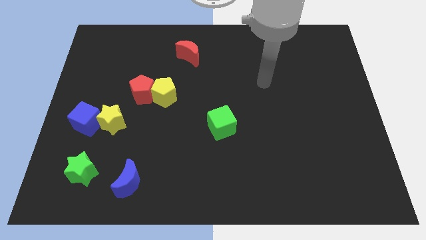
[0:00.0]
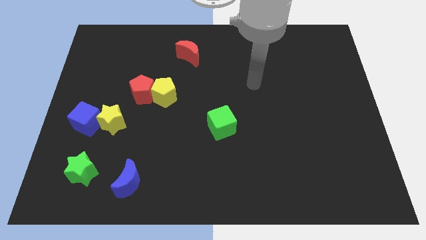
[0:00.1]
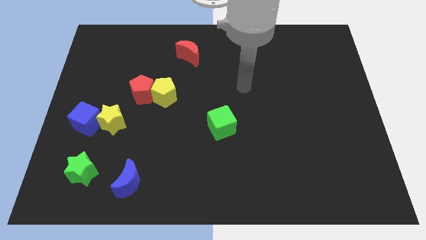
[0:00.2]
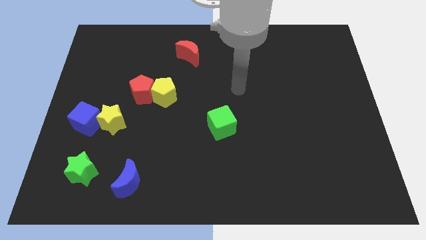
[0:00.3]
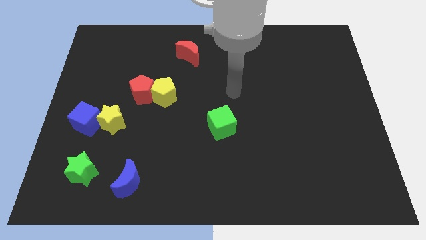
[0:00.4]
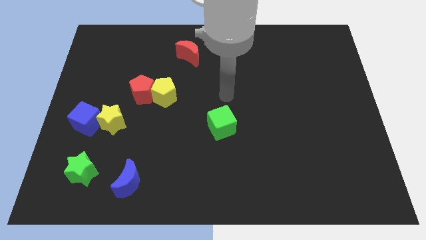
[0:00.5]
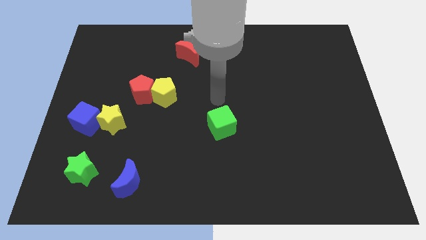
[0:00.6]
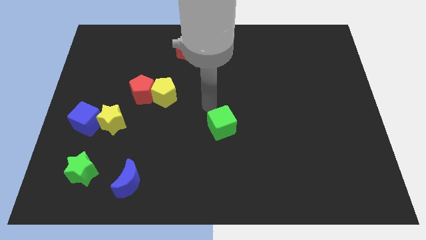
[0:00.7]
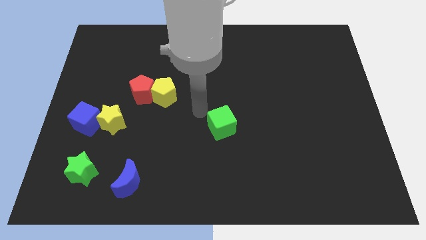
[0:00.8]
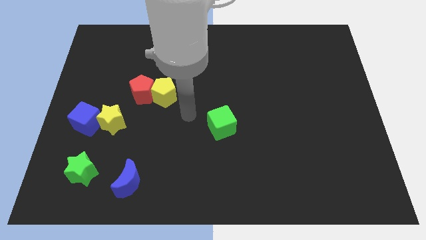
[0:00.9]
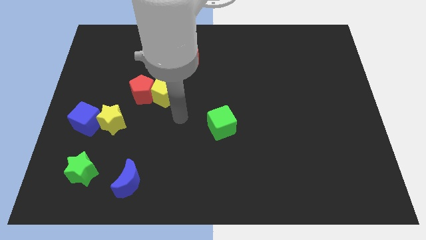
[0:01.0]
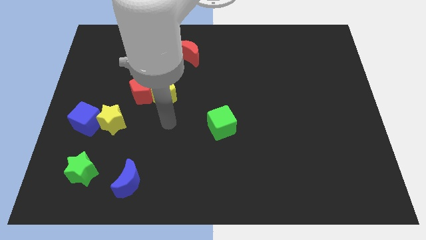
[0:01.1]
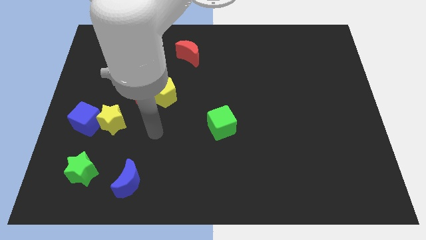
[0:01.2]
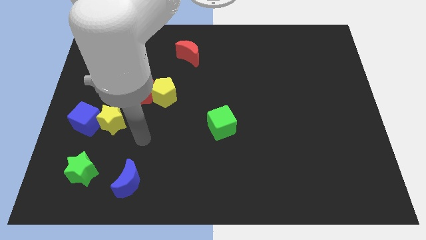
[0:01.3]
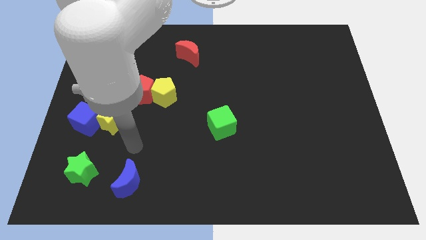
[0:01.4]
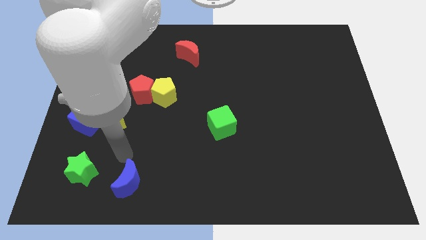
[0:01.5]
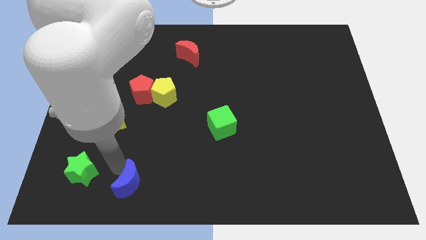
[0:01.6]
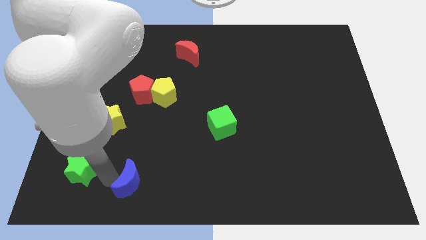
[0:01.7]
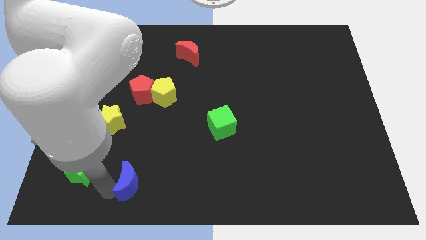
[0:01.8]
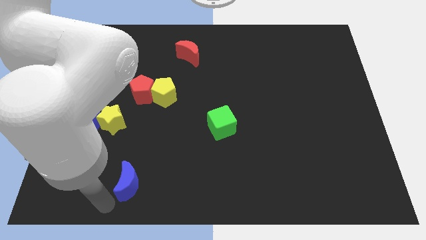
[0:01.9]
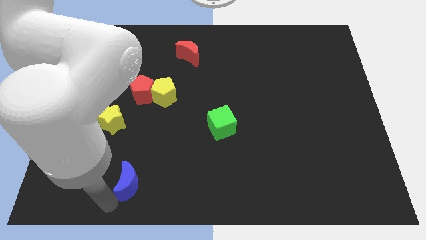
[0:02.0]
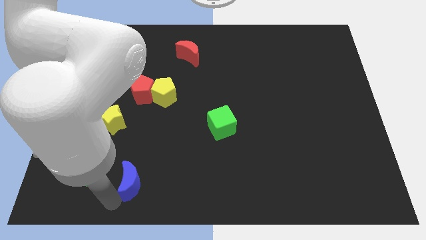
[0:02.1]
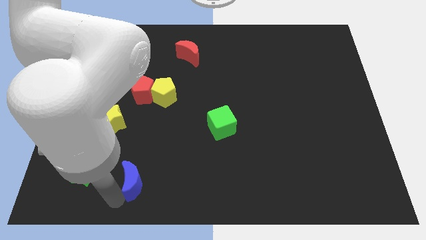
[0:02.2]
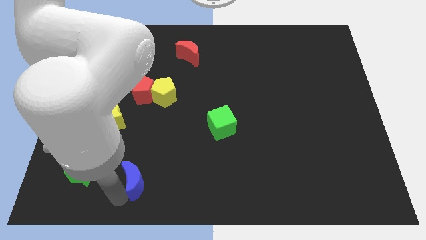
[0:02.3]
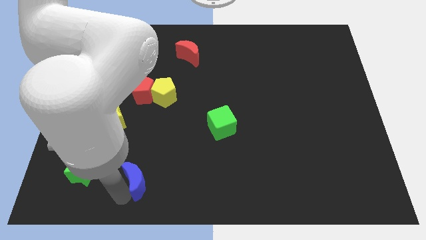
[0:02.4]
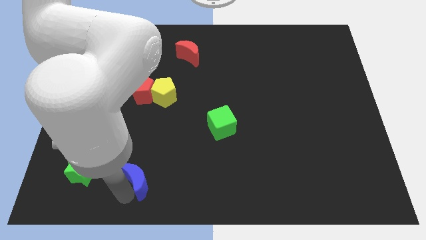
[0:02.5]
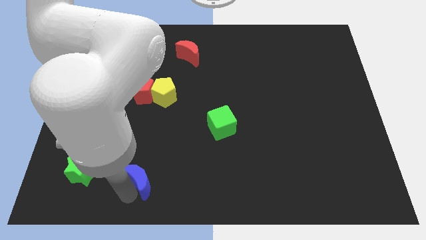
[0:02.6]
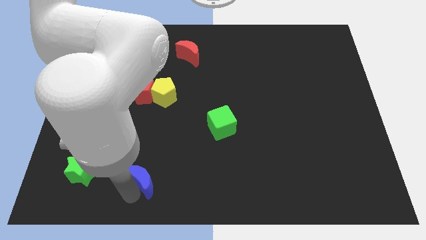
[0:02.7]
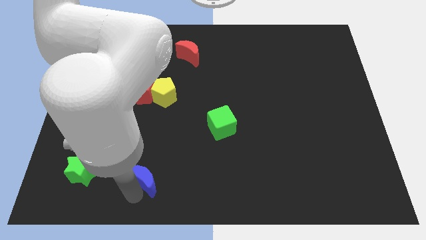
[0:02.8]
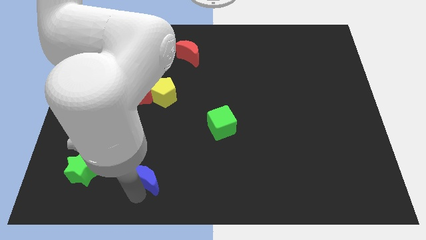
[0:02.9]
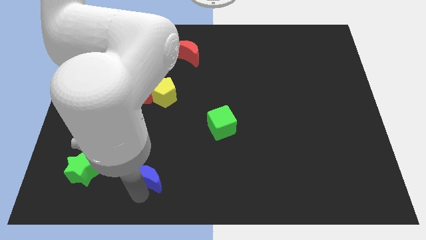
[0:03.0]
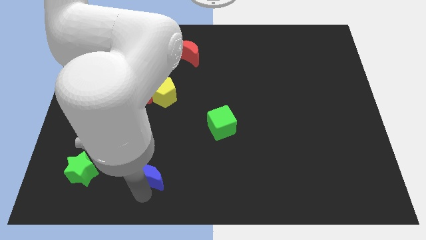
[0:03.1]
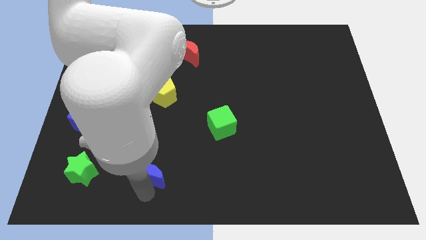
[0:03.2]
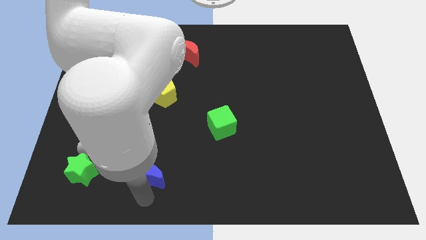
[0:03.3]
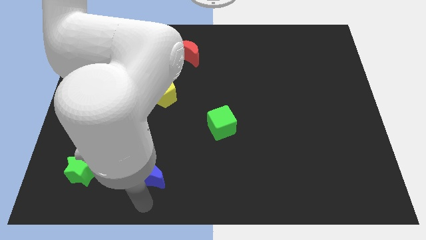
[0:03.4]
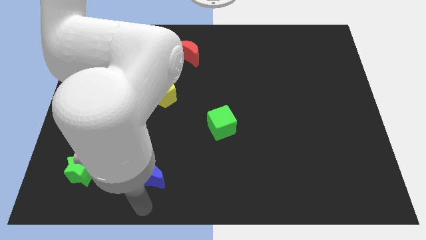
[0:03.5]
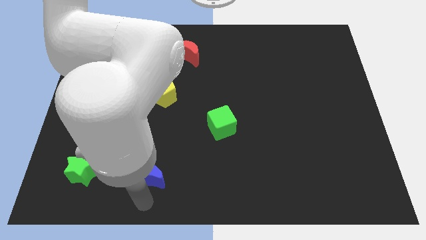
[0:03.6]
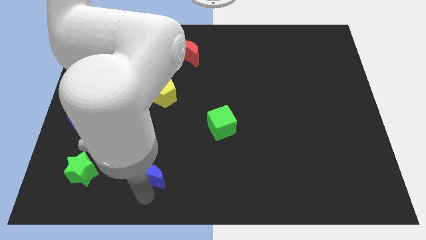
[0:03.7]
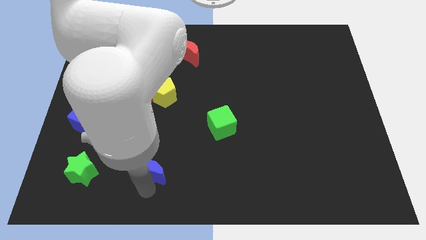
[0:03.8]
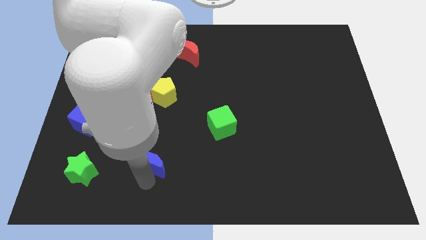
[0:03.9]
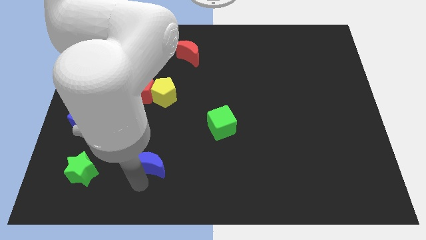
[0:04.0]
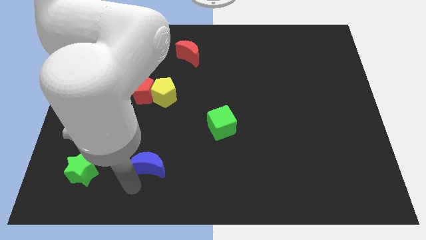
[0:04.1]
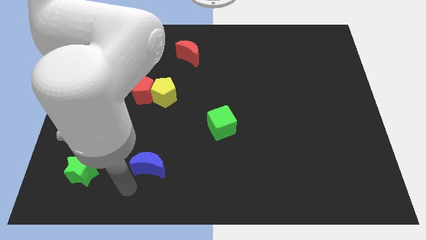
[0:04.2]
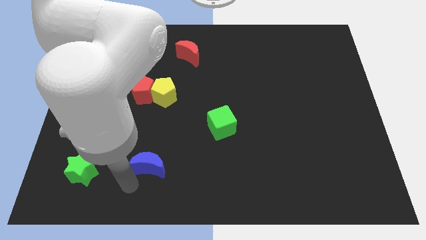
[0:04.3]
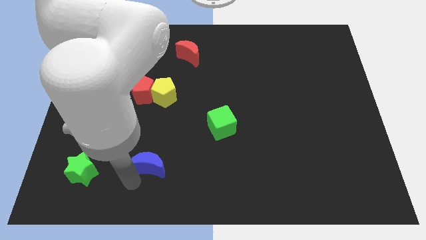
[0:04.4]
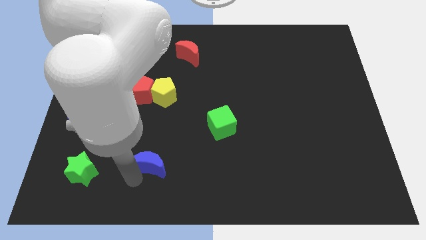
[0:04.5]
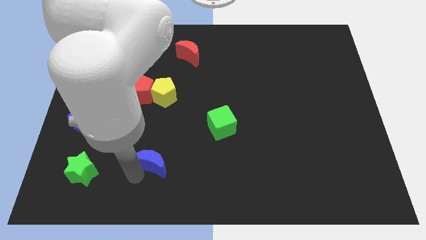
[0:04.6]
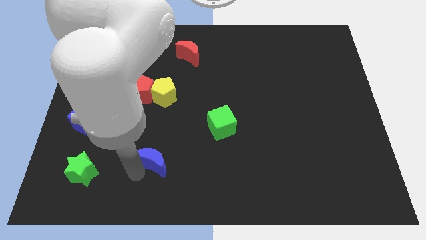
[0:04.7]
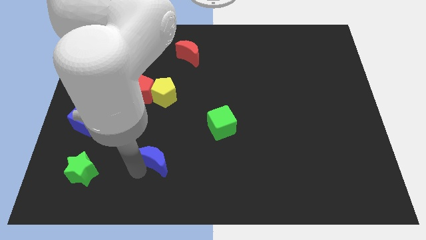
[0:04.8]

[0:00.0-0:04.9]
move the blue moon up and then right a little

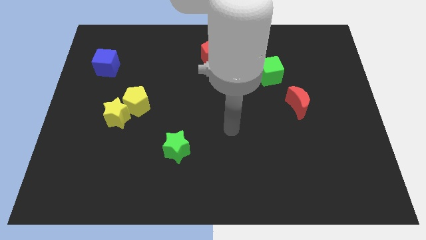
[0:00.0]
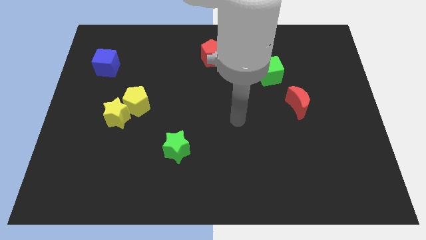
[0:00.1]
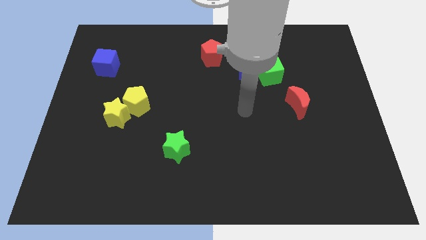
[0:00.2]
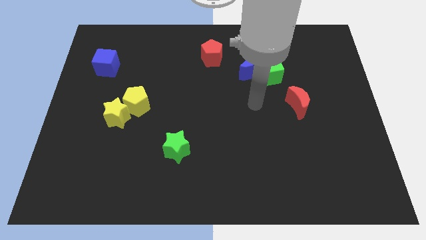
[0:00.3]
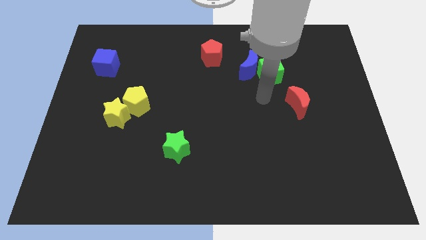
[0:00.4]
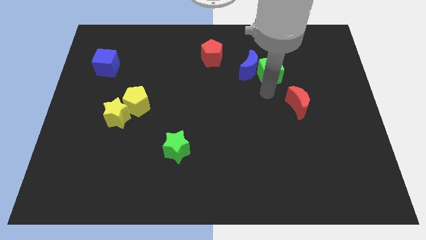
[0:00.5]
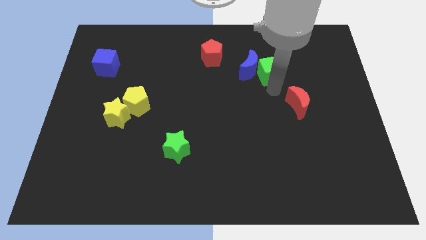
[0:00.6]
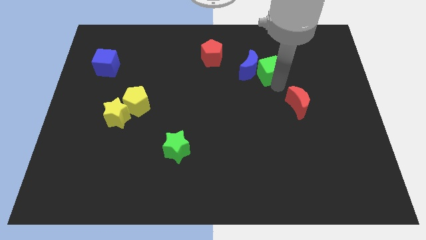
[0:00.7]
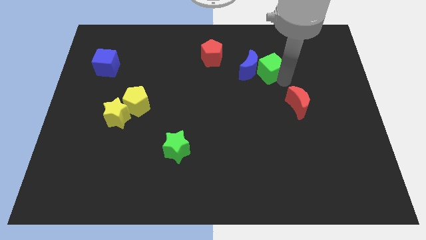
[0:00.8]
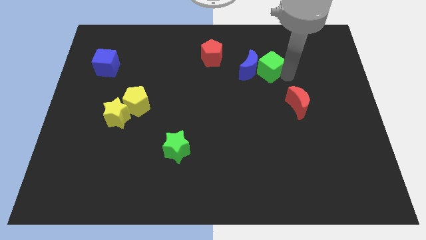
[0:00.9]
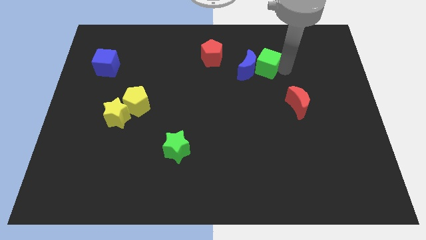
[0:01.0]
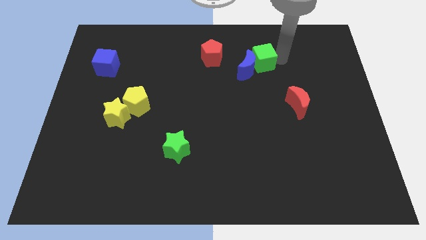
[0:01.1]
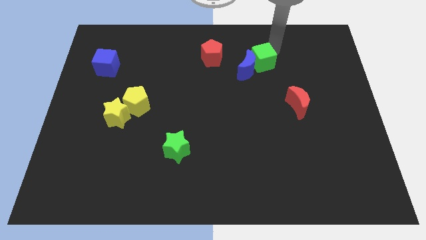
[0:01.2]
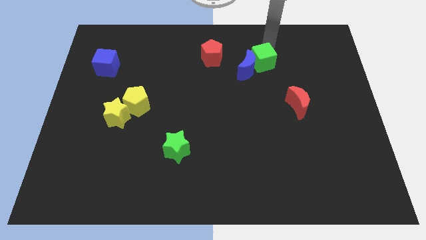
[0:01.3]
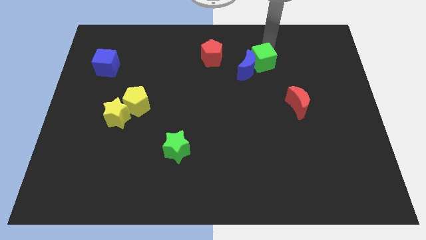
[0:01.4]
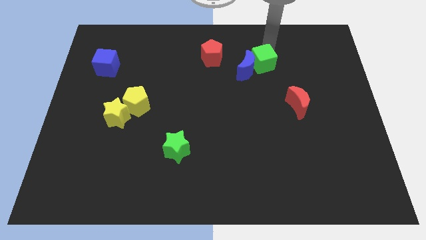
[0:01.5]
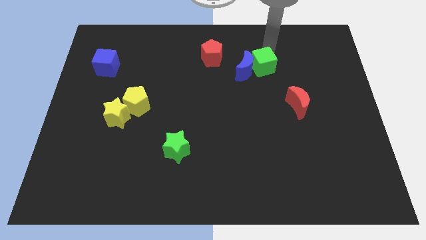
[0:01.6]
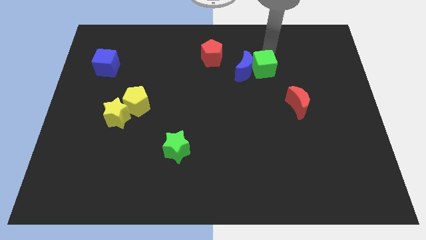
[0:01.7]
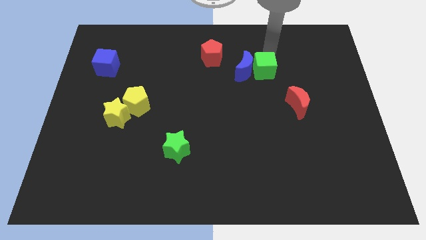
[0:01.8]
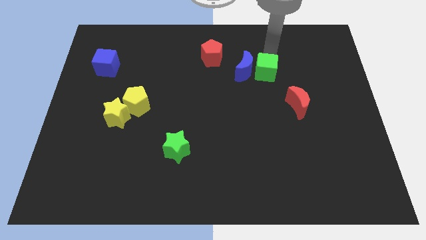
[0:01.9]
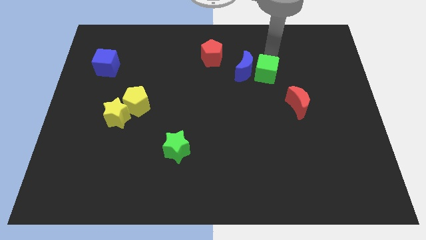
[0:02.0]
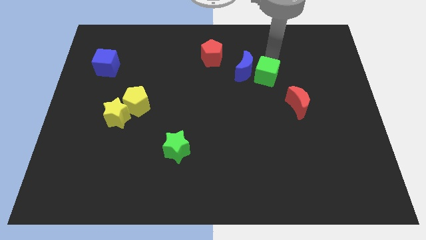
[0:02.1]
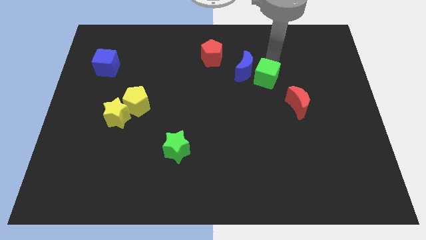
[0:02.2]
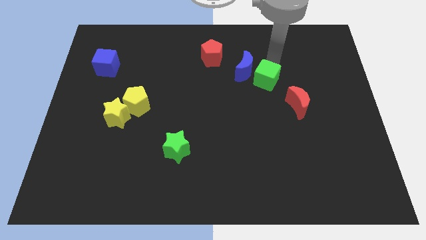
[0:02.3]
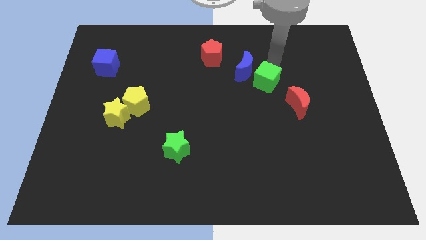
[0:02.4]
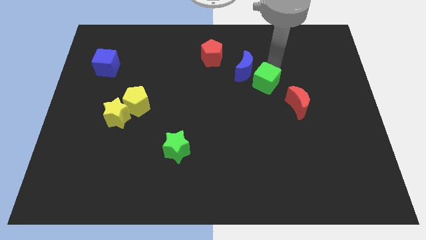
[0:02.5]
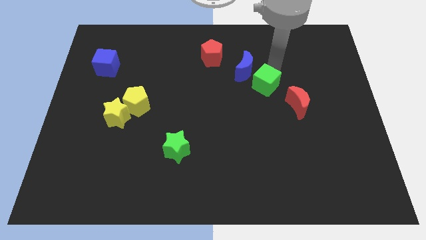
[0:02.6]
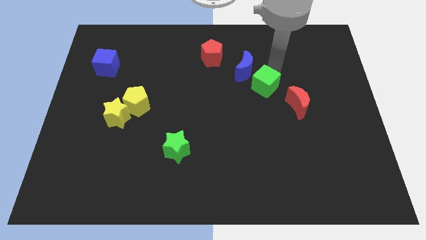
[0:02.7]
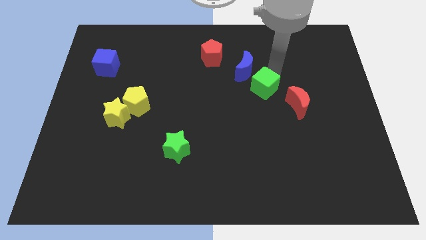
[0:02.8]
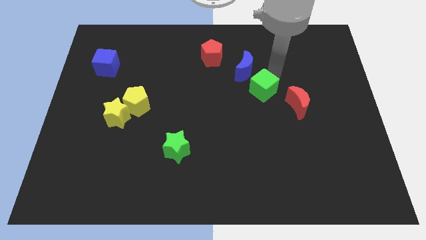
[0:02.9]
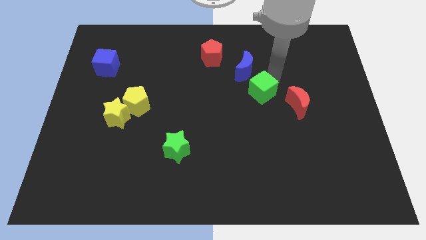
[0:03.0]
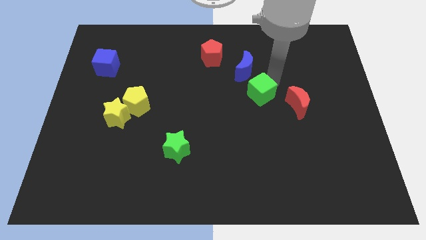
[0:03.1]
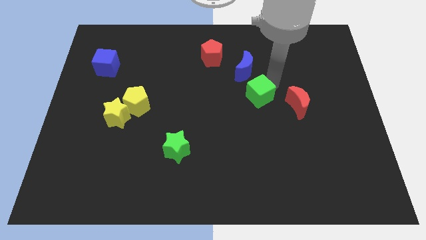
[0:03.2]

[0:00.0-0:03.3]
slightly slide the green cube down and left
